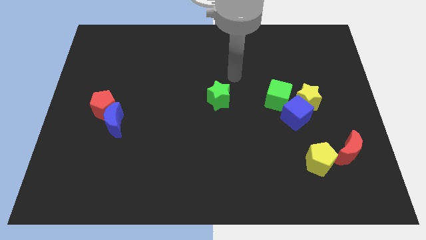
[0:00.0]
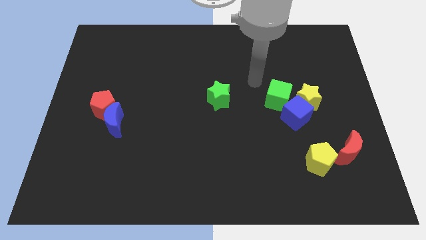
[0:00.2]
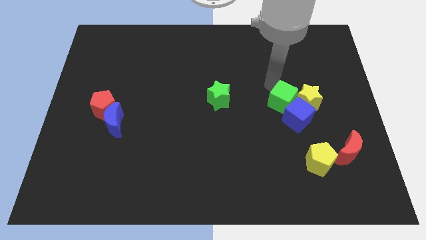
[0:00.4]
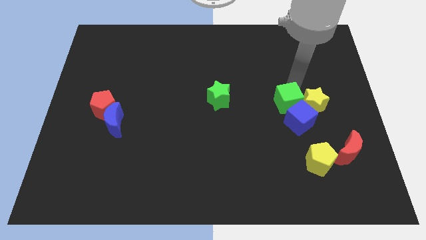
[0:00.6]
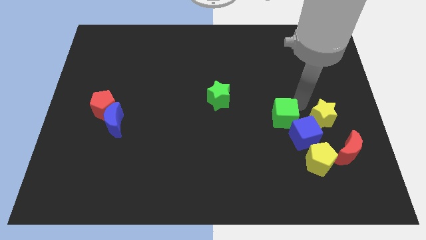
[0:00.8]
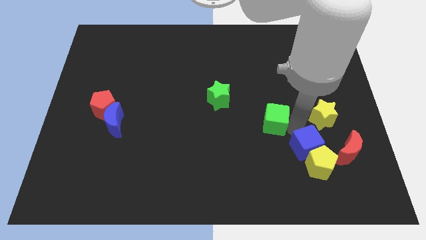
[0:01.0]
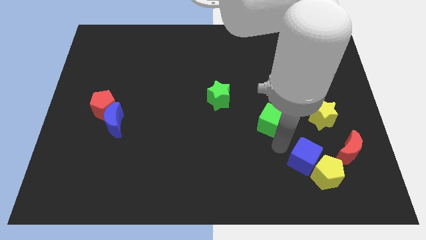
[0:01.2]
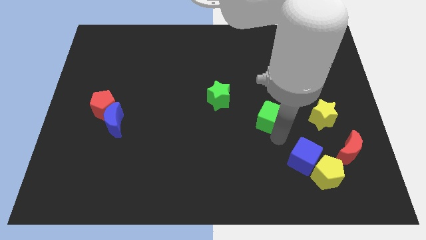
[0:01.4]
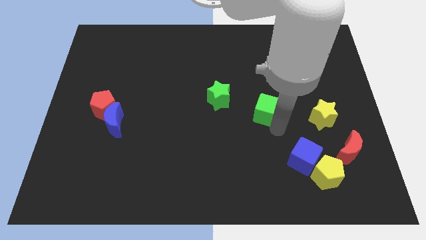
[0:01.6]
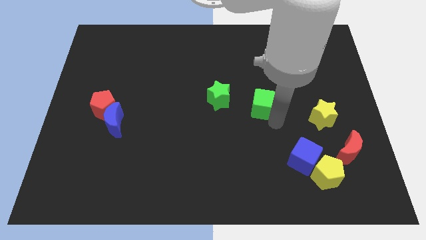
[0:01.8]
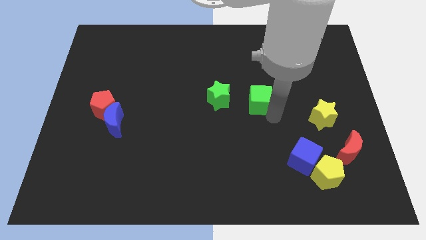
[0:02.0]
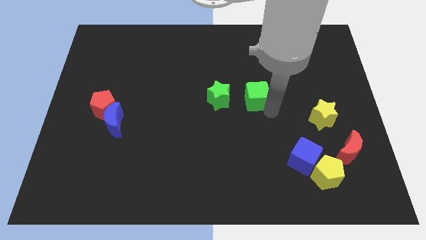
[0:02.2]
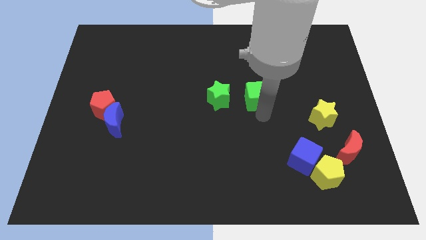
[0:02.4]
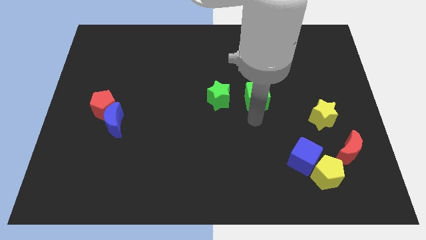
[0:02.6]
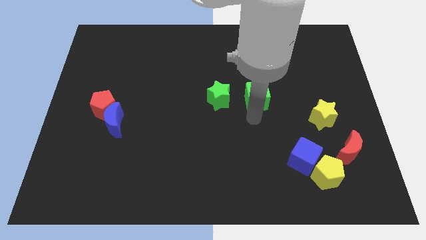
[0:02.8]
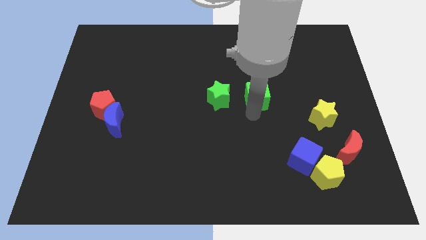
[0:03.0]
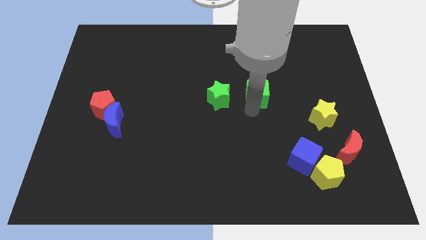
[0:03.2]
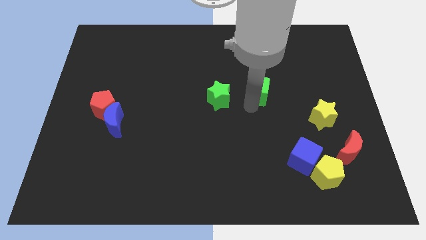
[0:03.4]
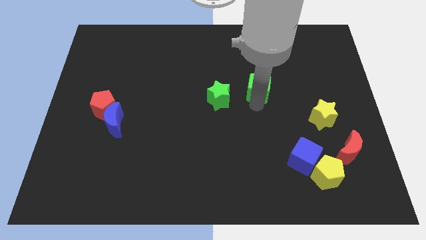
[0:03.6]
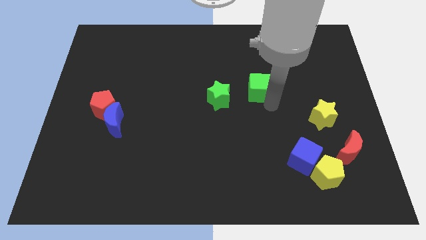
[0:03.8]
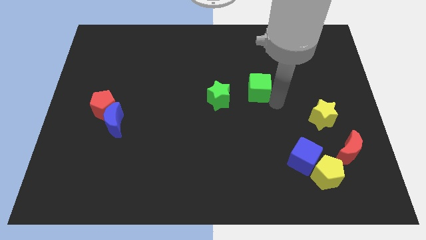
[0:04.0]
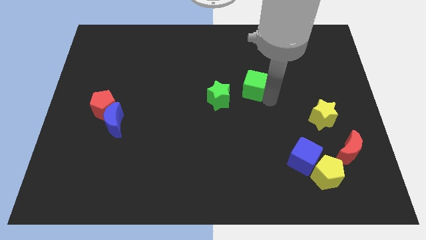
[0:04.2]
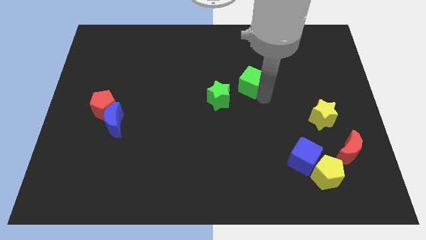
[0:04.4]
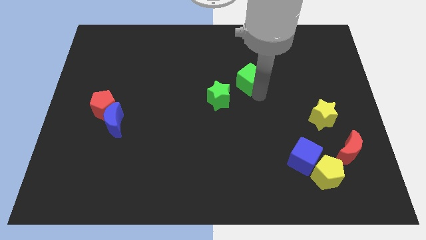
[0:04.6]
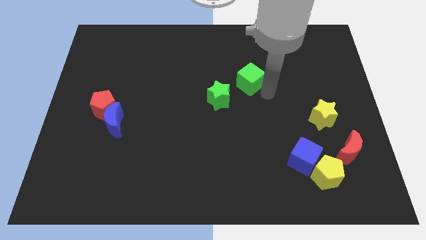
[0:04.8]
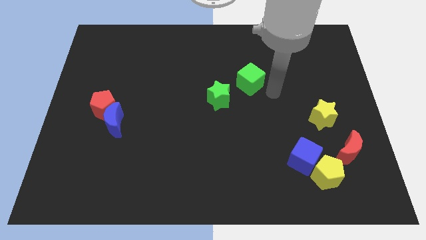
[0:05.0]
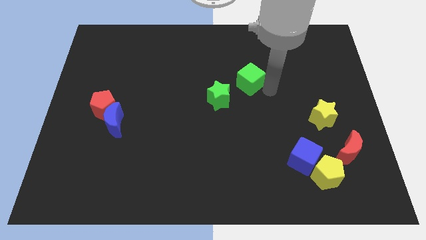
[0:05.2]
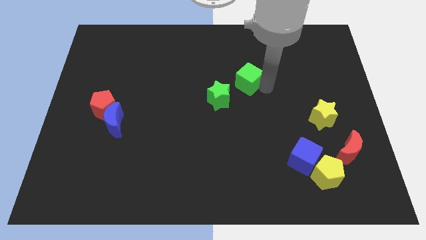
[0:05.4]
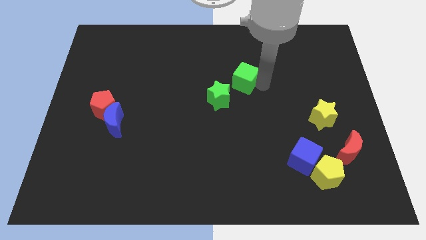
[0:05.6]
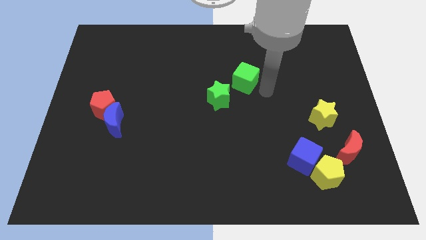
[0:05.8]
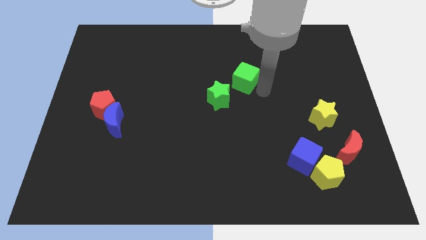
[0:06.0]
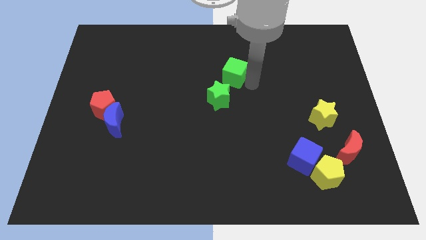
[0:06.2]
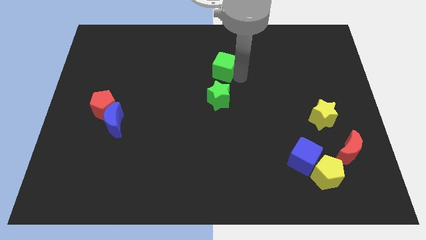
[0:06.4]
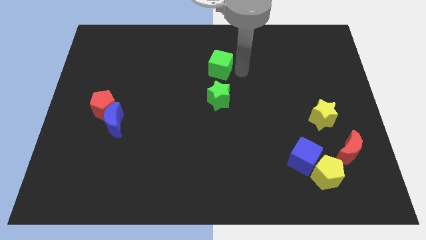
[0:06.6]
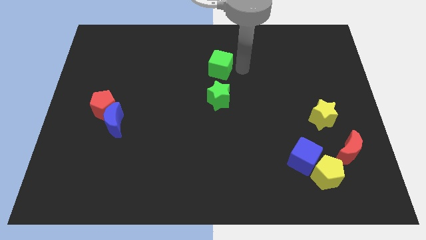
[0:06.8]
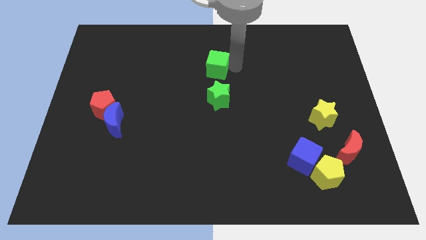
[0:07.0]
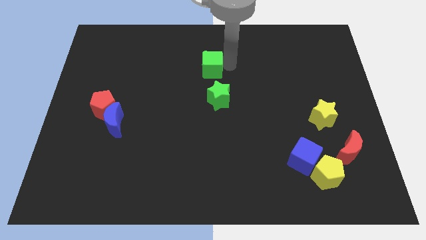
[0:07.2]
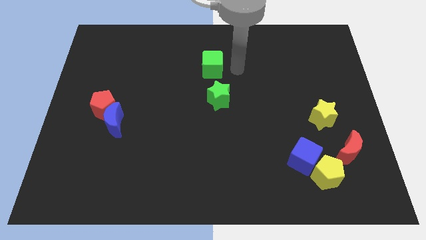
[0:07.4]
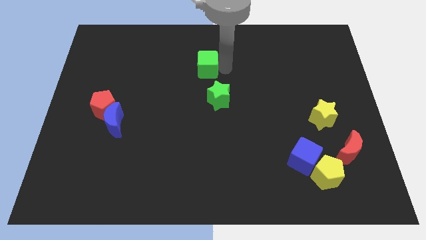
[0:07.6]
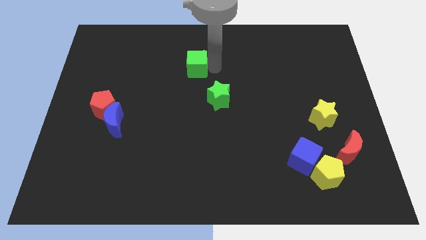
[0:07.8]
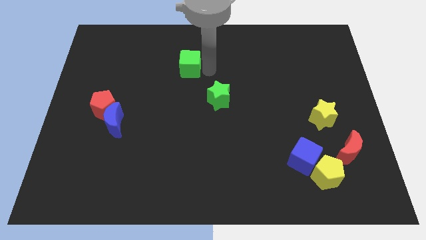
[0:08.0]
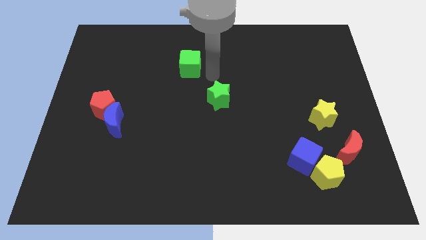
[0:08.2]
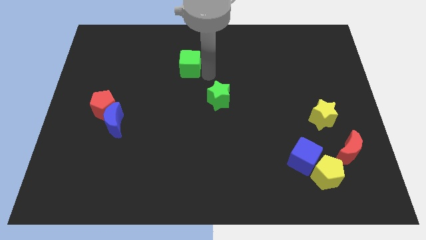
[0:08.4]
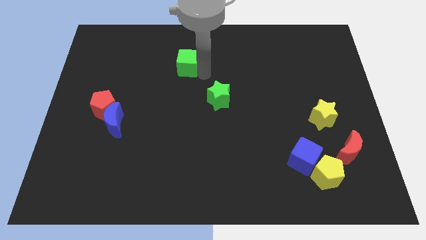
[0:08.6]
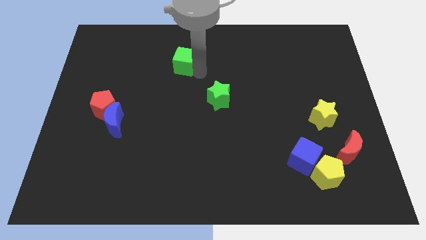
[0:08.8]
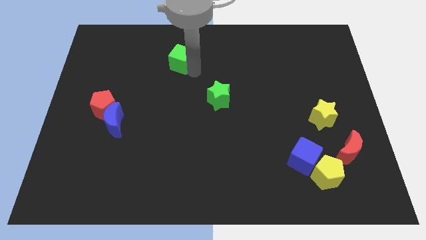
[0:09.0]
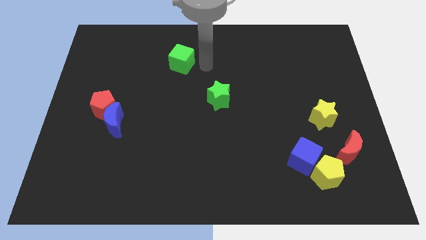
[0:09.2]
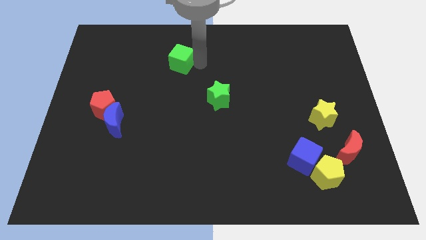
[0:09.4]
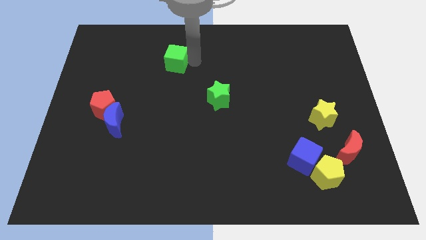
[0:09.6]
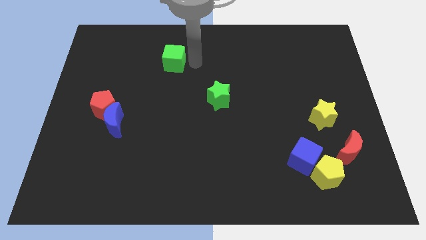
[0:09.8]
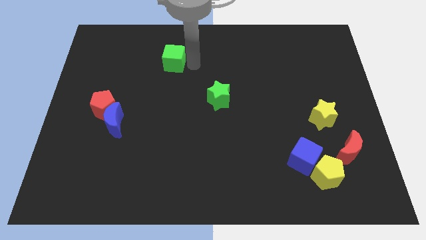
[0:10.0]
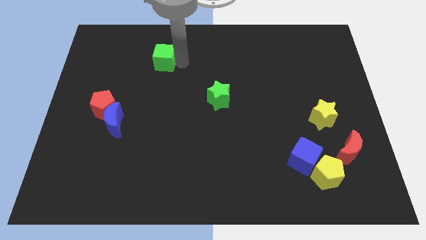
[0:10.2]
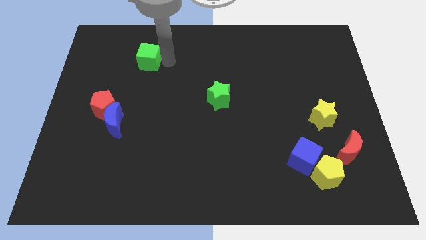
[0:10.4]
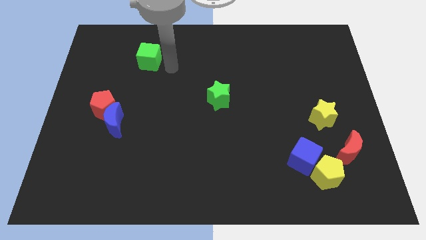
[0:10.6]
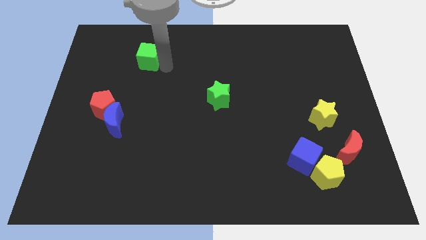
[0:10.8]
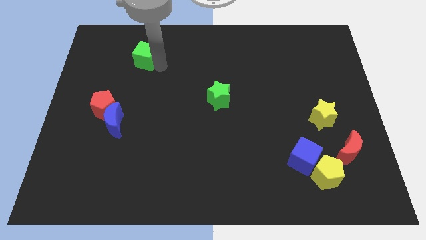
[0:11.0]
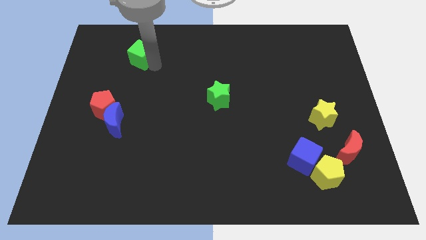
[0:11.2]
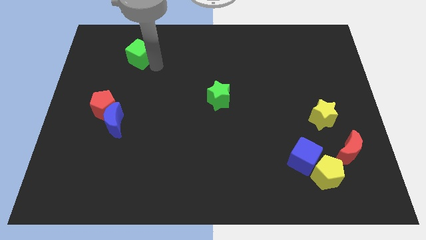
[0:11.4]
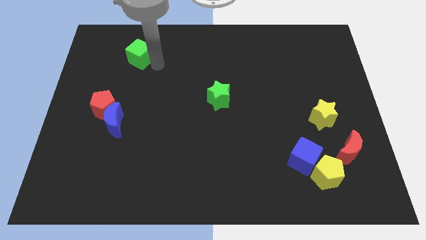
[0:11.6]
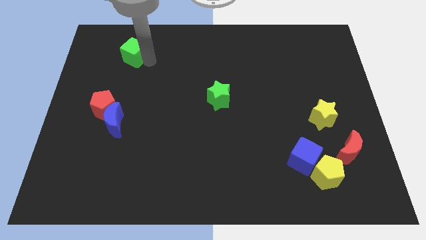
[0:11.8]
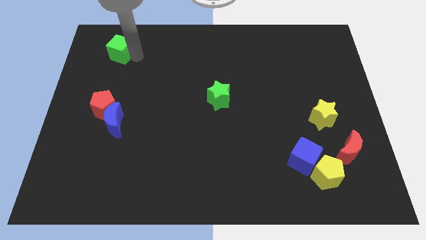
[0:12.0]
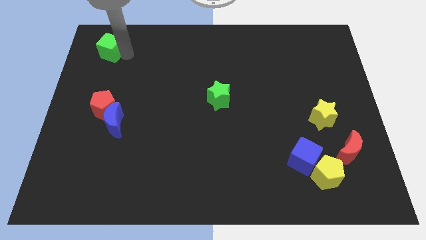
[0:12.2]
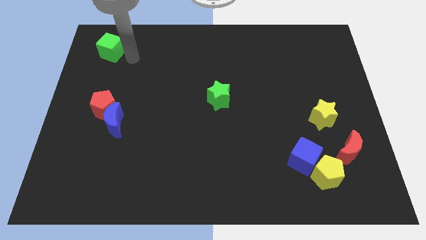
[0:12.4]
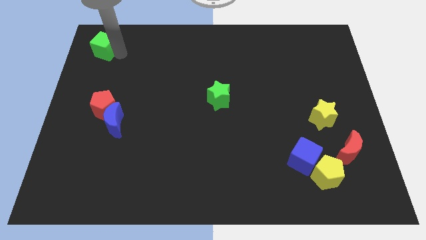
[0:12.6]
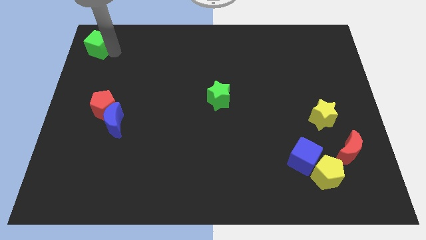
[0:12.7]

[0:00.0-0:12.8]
slide the green cube to the top left
